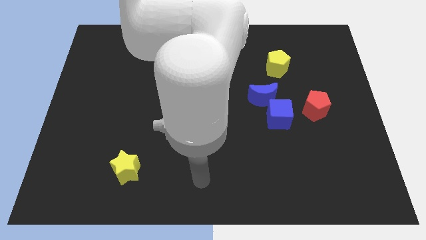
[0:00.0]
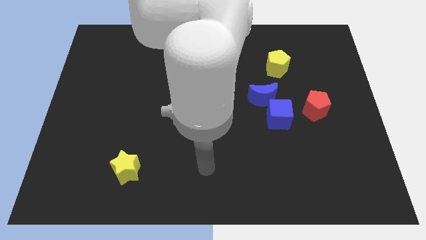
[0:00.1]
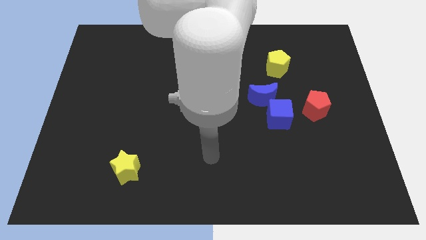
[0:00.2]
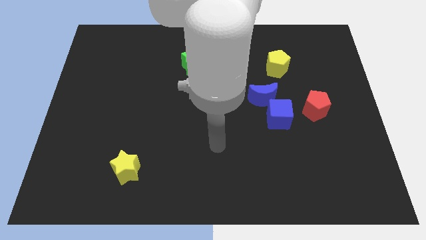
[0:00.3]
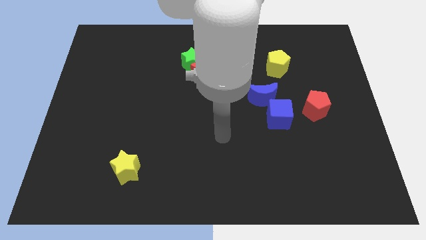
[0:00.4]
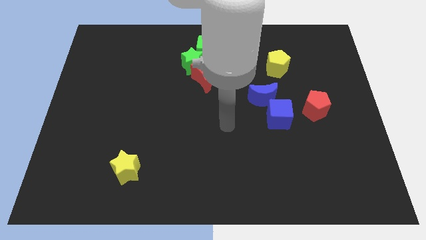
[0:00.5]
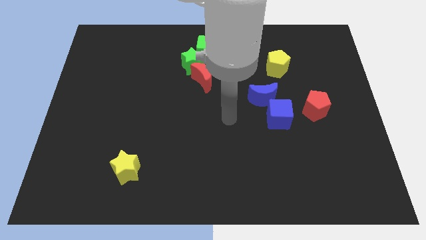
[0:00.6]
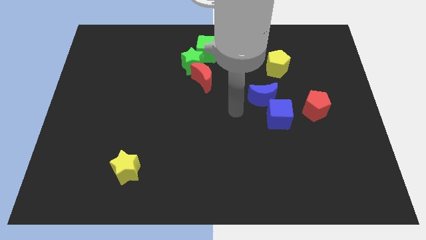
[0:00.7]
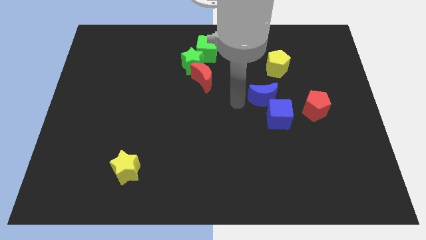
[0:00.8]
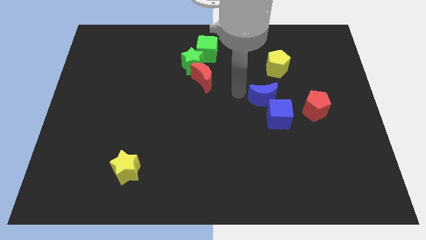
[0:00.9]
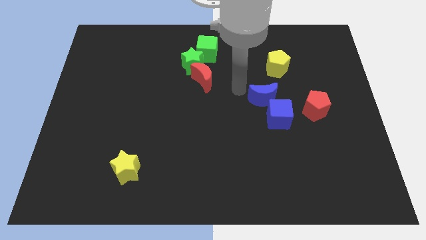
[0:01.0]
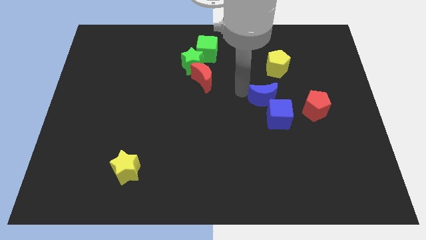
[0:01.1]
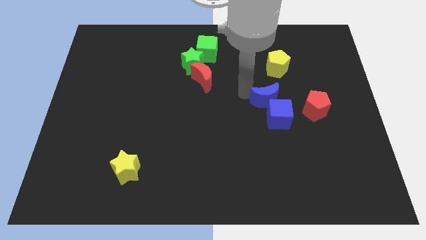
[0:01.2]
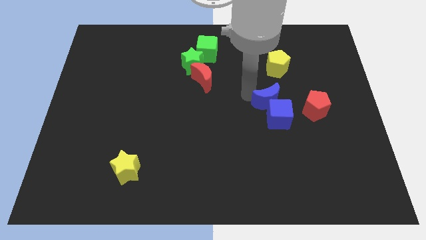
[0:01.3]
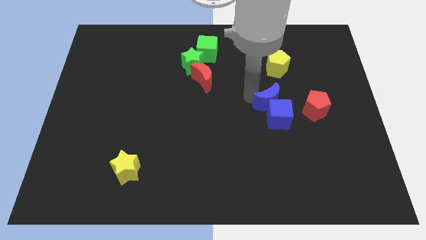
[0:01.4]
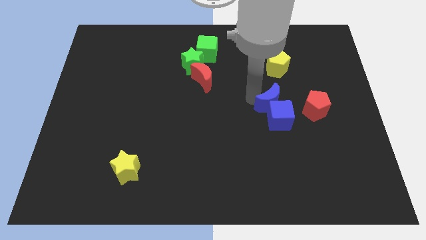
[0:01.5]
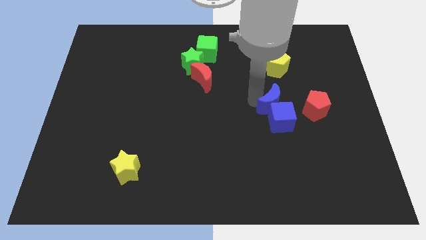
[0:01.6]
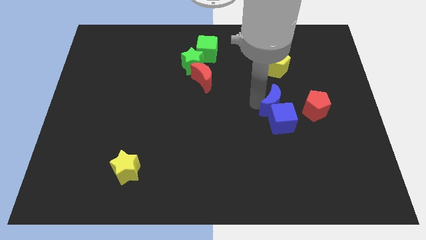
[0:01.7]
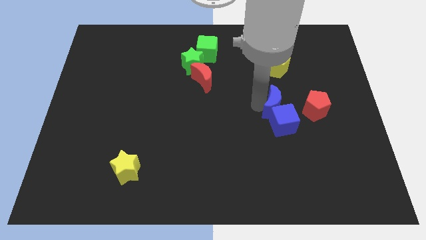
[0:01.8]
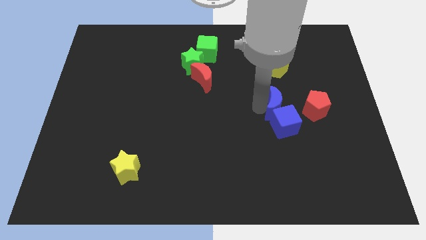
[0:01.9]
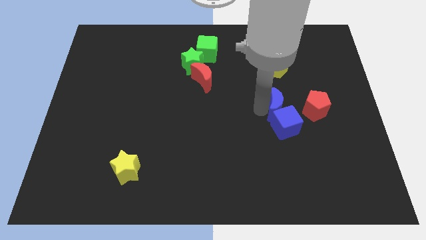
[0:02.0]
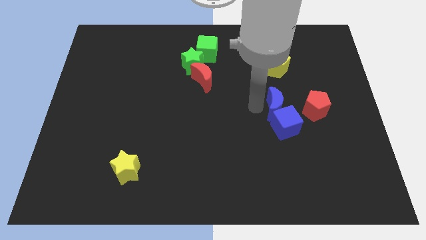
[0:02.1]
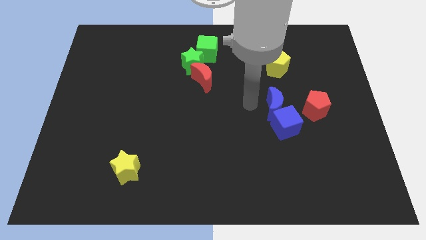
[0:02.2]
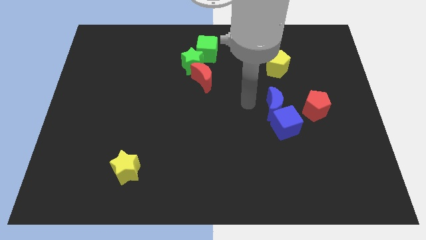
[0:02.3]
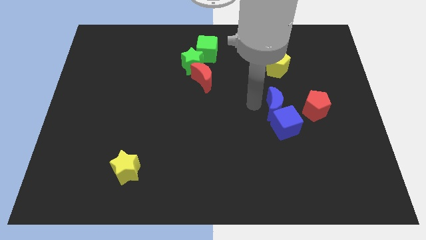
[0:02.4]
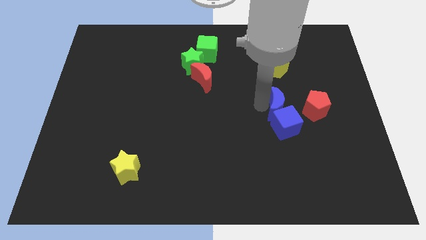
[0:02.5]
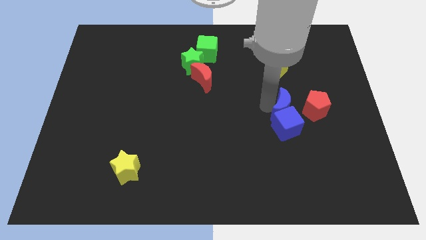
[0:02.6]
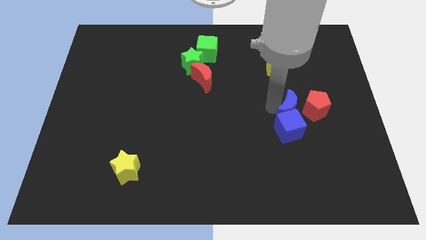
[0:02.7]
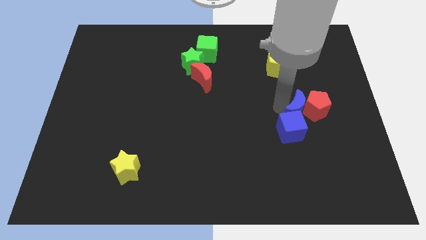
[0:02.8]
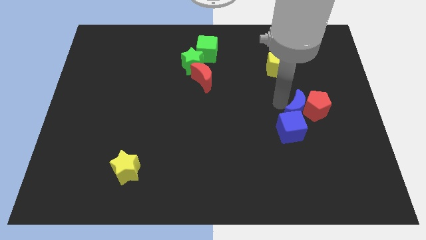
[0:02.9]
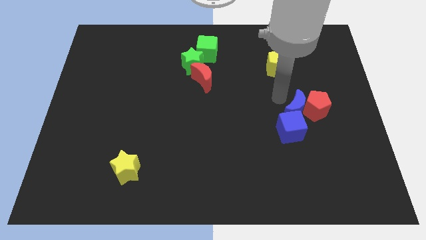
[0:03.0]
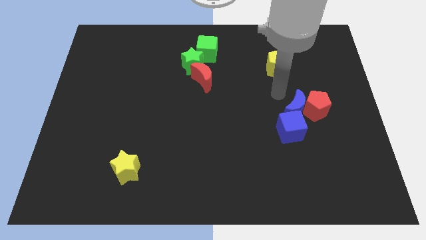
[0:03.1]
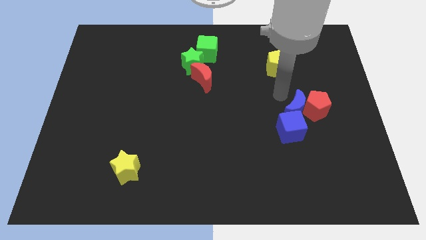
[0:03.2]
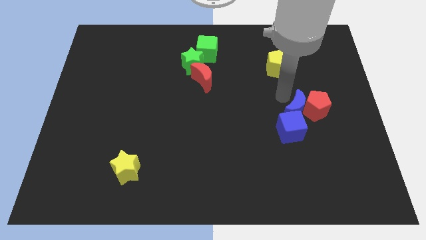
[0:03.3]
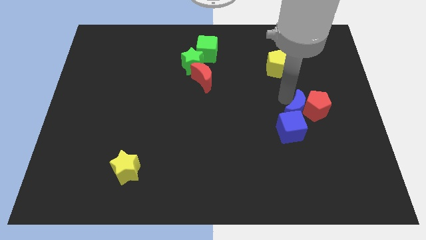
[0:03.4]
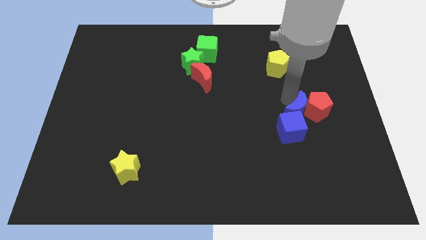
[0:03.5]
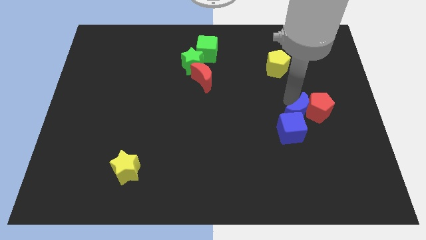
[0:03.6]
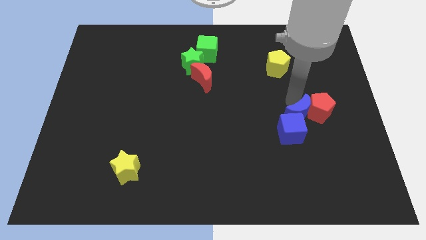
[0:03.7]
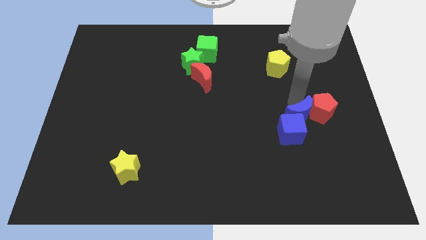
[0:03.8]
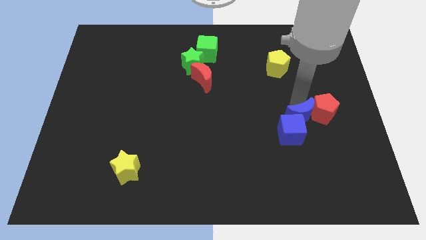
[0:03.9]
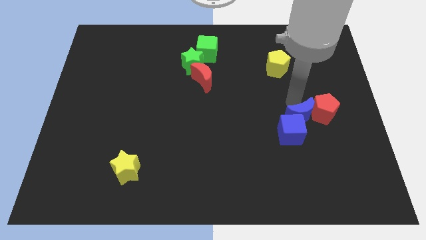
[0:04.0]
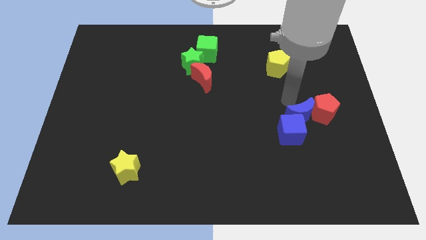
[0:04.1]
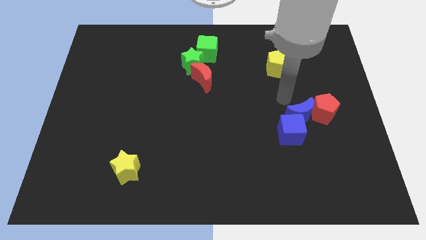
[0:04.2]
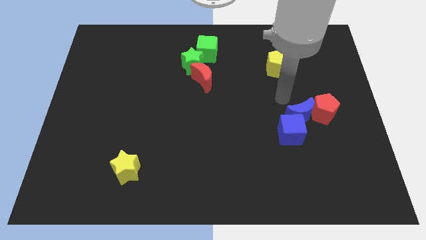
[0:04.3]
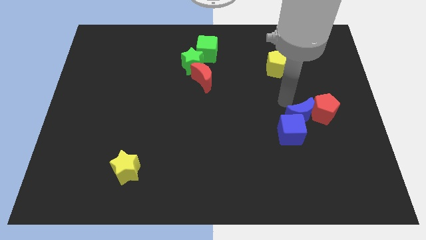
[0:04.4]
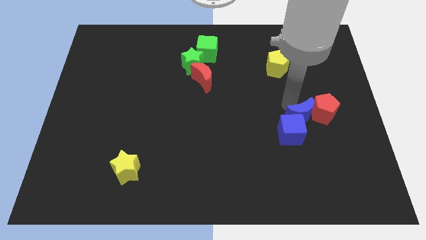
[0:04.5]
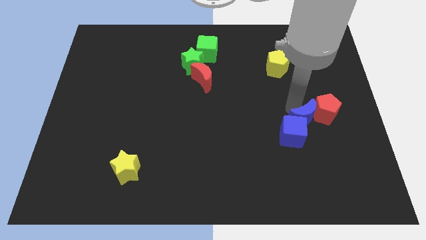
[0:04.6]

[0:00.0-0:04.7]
put the blue moon to the right of the blue cube

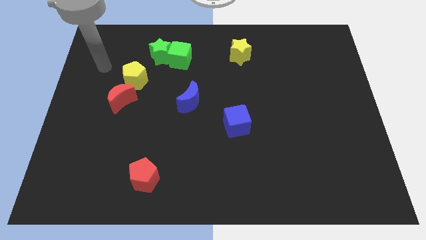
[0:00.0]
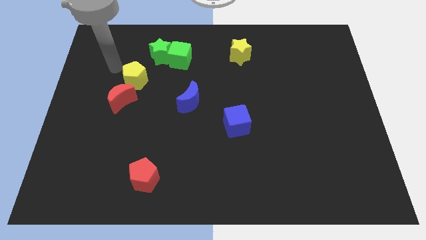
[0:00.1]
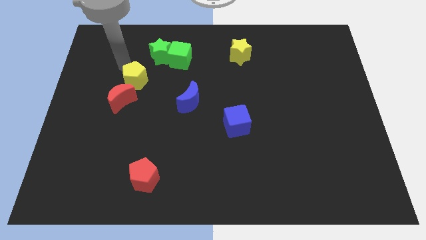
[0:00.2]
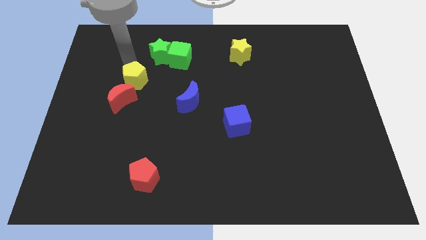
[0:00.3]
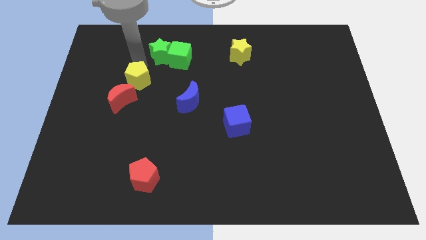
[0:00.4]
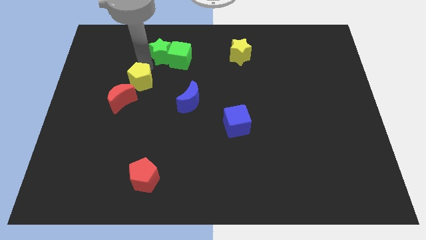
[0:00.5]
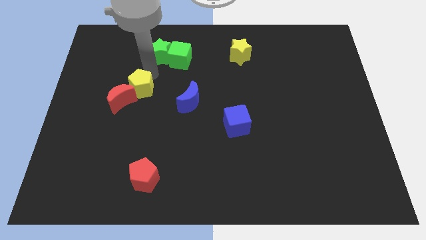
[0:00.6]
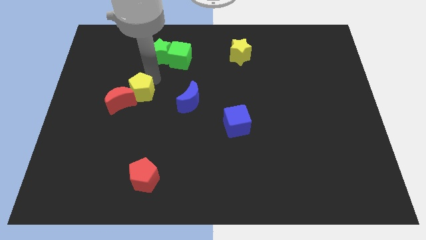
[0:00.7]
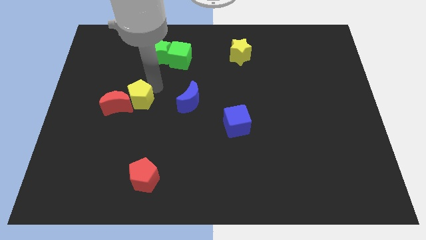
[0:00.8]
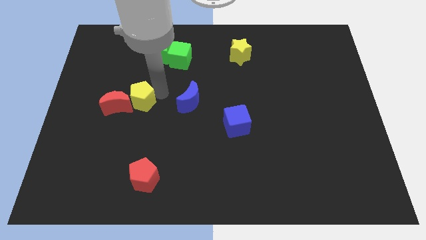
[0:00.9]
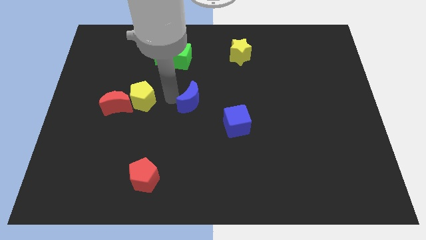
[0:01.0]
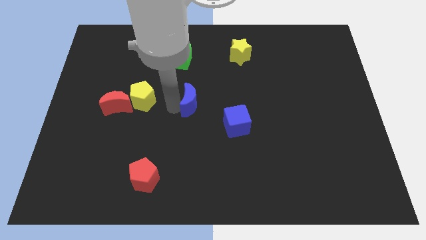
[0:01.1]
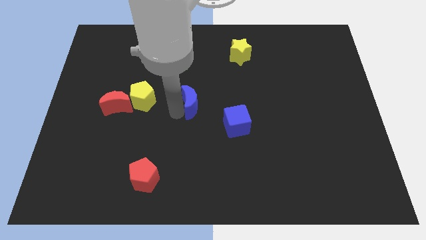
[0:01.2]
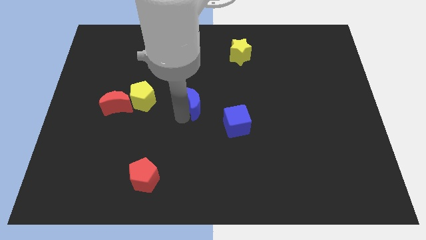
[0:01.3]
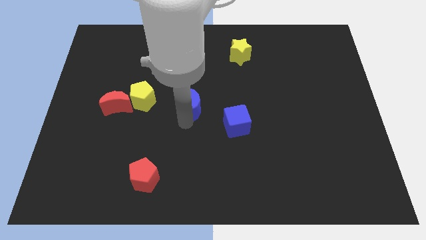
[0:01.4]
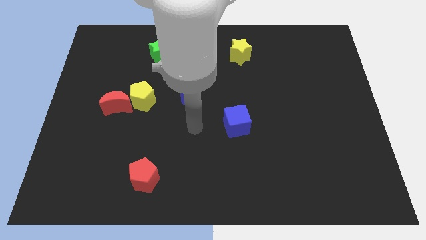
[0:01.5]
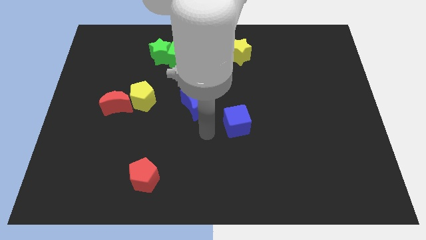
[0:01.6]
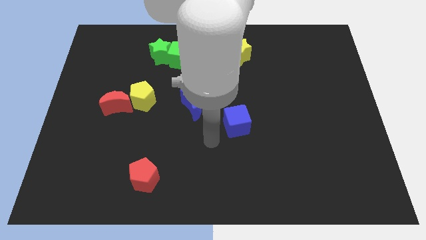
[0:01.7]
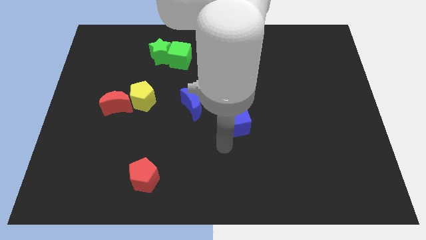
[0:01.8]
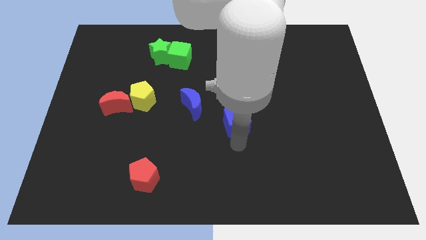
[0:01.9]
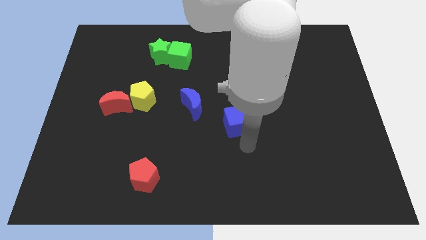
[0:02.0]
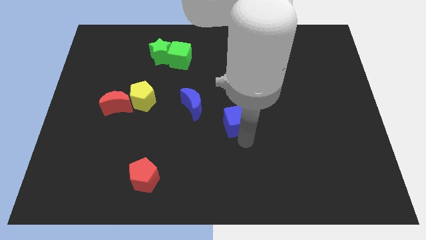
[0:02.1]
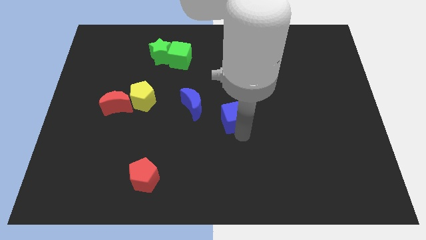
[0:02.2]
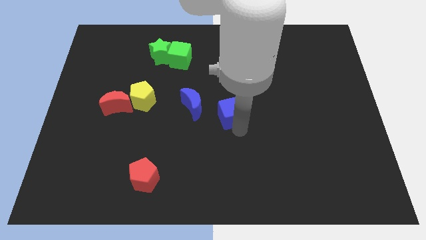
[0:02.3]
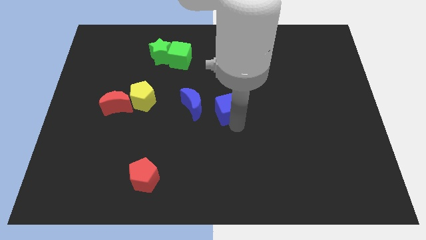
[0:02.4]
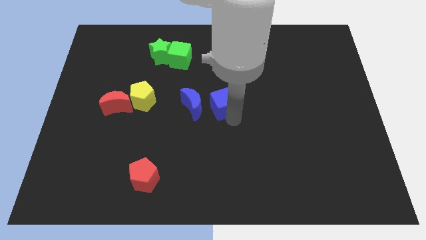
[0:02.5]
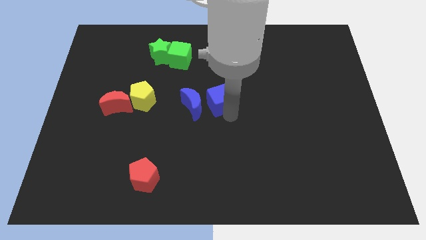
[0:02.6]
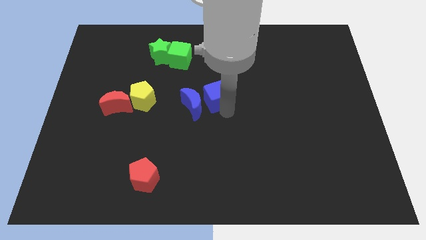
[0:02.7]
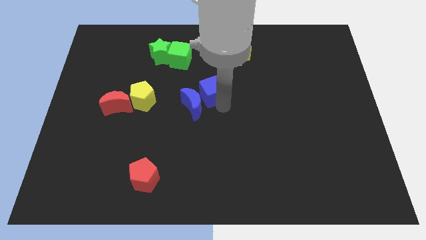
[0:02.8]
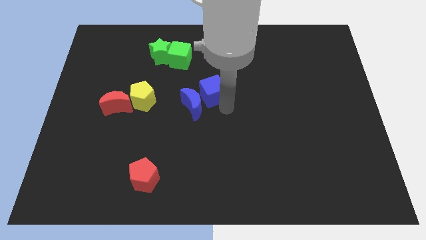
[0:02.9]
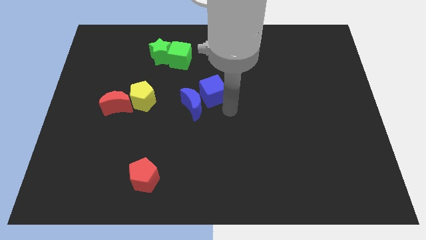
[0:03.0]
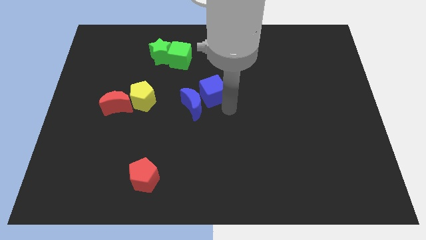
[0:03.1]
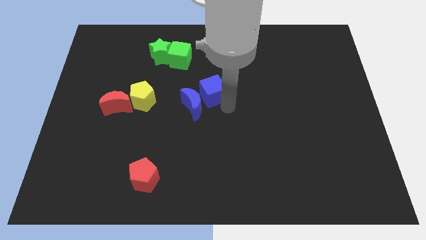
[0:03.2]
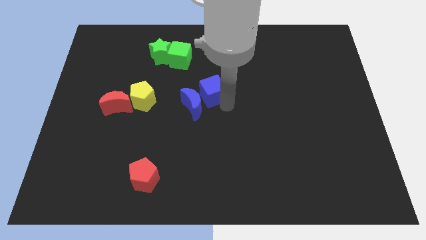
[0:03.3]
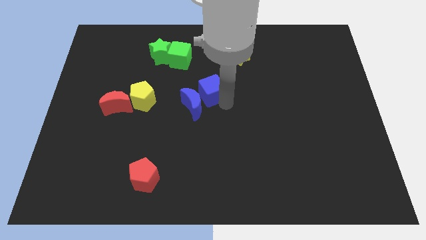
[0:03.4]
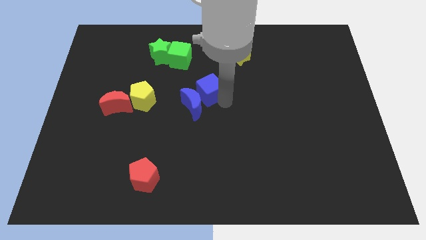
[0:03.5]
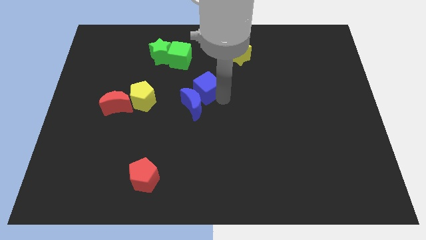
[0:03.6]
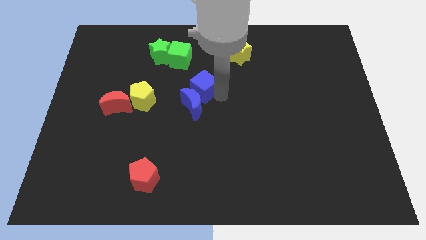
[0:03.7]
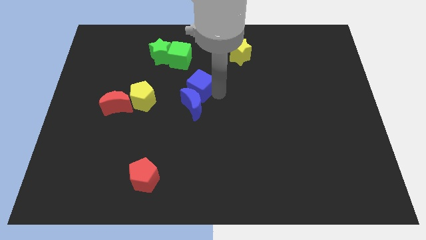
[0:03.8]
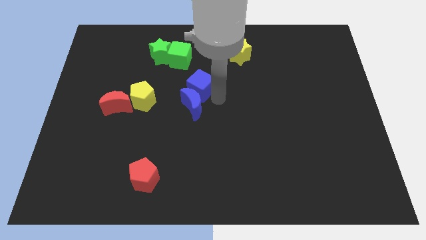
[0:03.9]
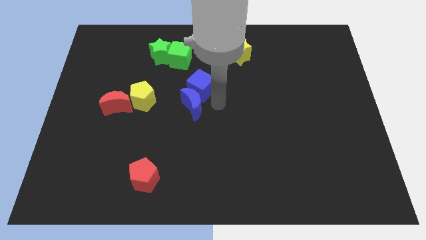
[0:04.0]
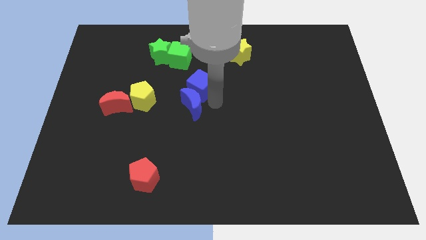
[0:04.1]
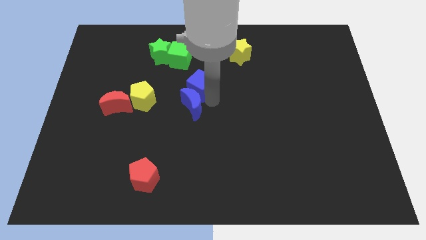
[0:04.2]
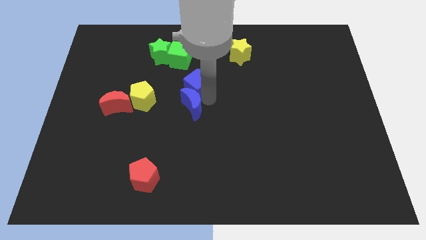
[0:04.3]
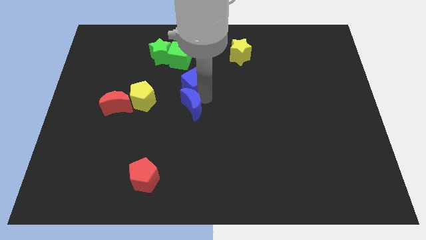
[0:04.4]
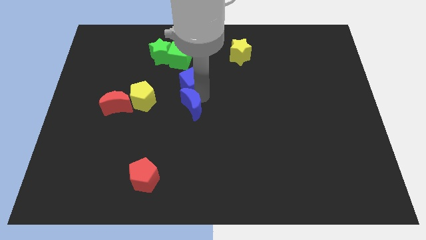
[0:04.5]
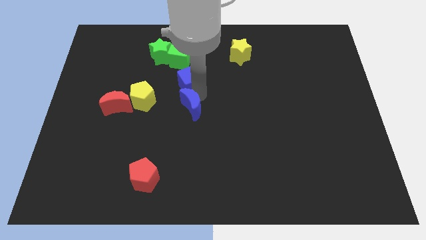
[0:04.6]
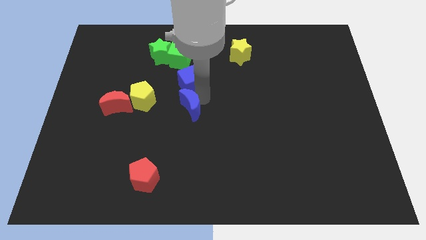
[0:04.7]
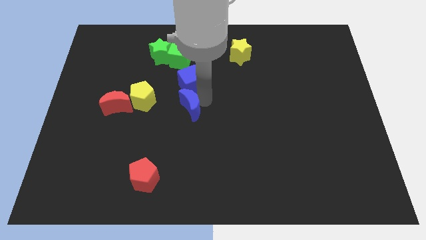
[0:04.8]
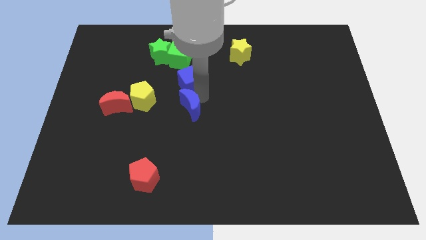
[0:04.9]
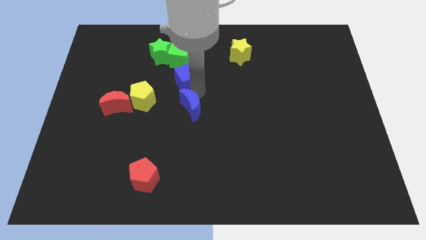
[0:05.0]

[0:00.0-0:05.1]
push the blue cube to the bottom right of the green star
